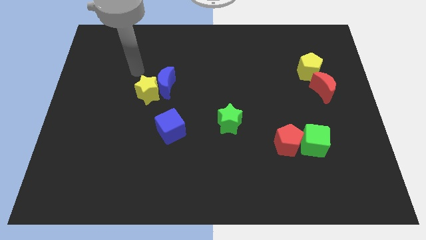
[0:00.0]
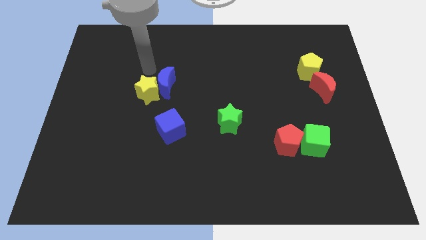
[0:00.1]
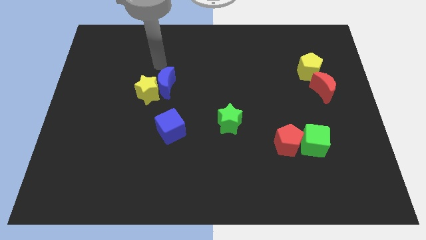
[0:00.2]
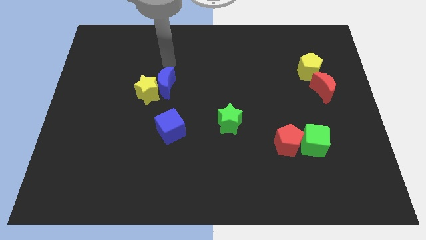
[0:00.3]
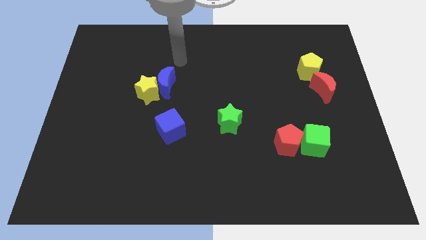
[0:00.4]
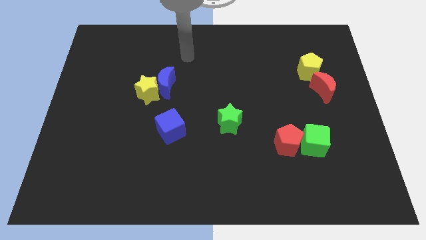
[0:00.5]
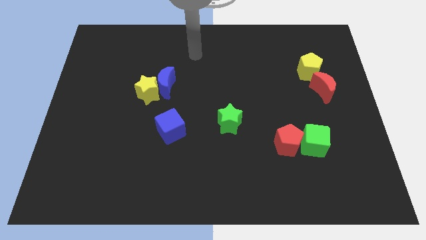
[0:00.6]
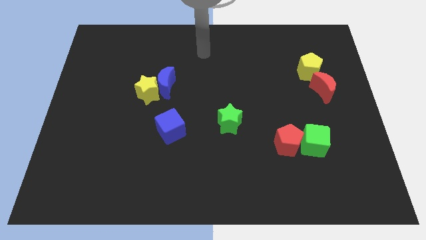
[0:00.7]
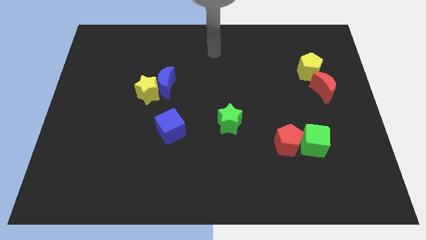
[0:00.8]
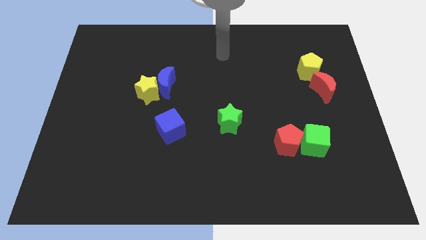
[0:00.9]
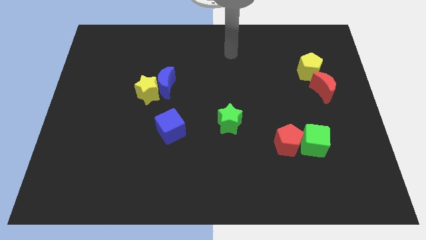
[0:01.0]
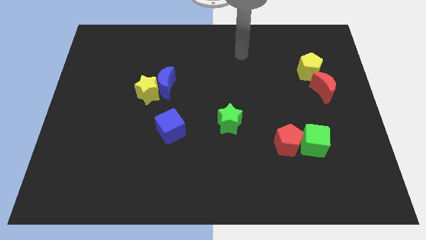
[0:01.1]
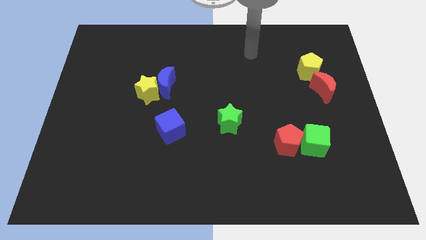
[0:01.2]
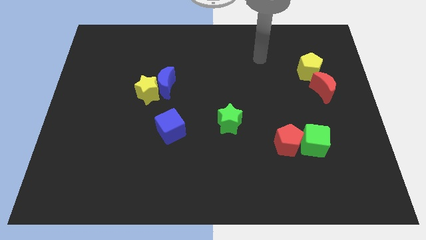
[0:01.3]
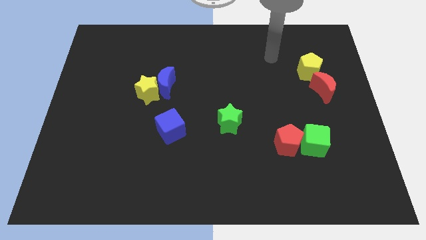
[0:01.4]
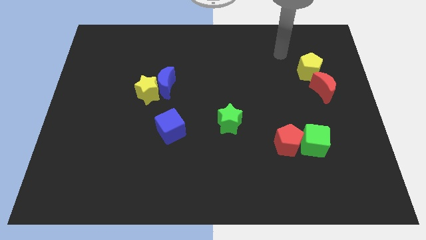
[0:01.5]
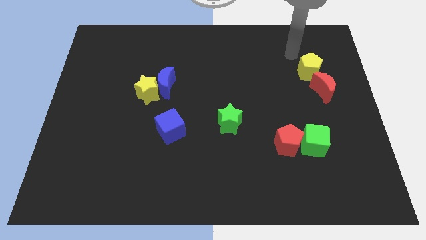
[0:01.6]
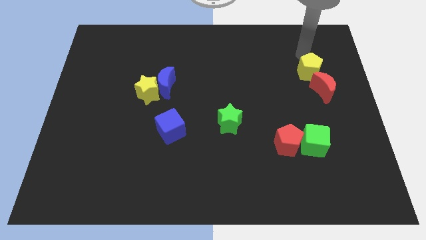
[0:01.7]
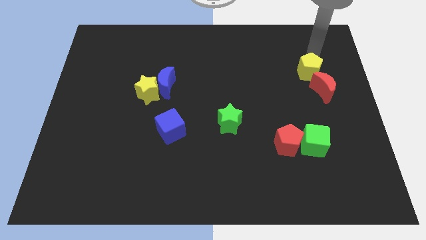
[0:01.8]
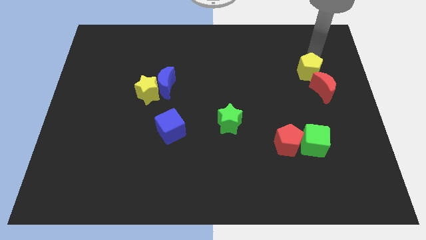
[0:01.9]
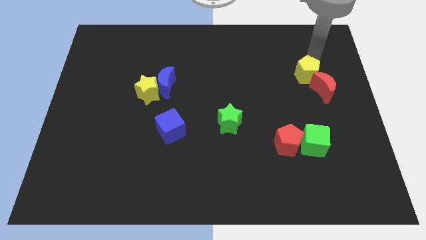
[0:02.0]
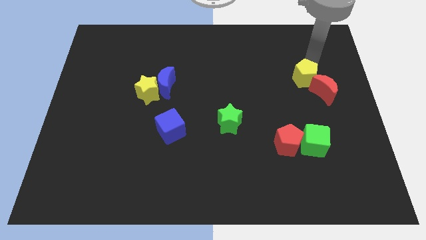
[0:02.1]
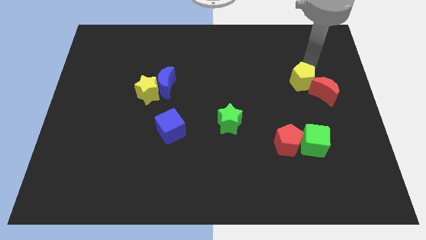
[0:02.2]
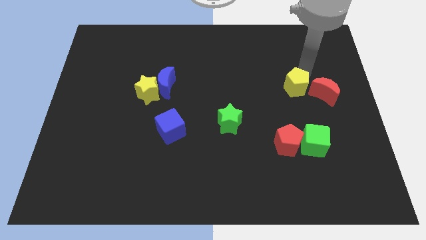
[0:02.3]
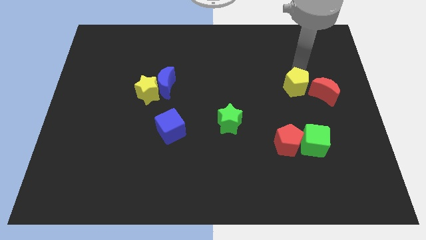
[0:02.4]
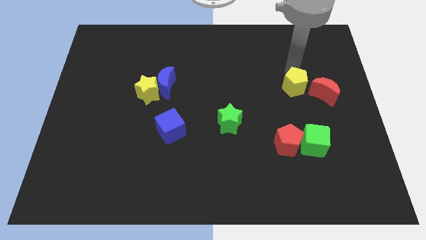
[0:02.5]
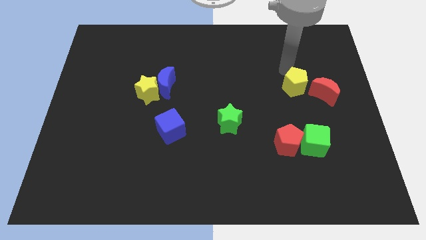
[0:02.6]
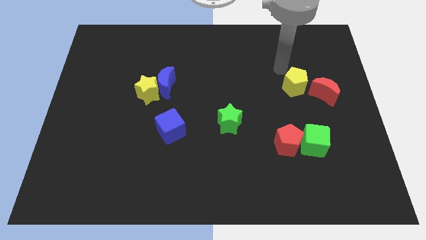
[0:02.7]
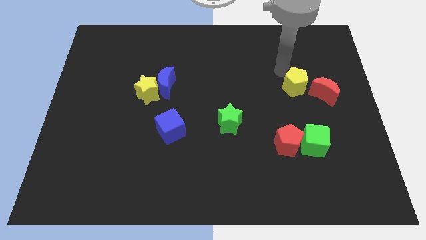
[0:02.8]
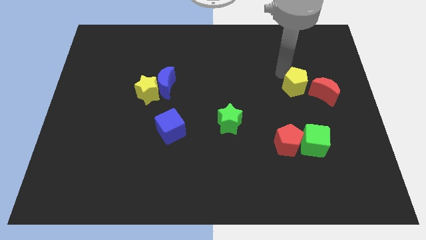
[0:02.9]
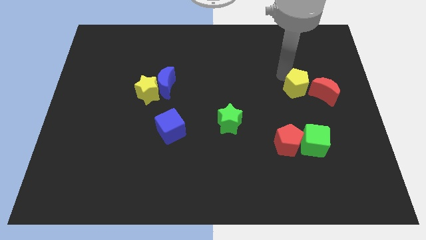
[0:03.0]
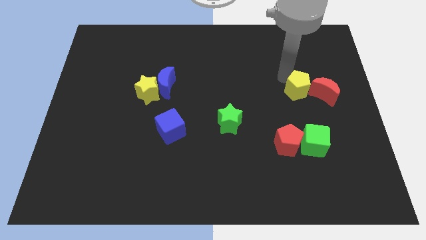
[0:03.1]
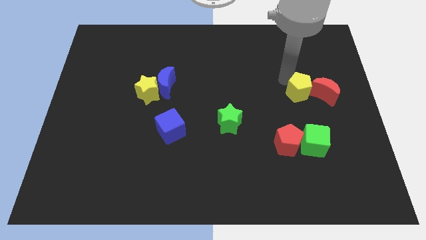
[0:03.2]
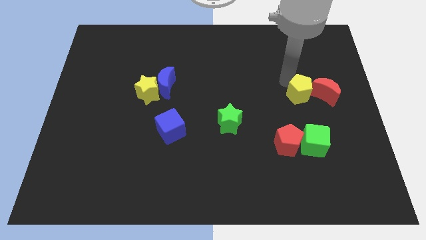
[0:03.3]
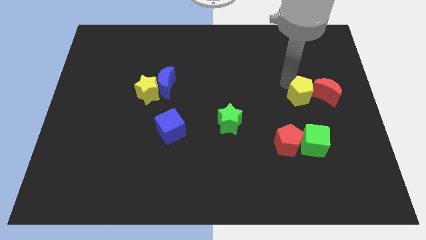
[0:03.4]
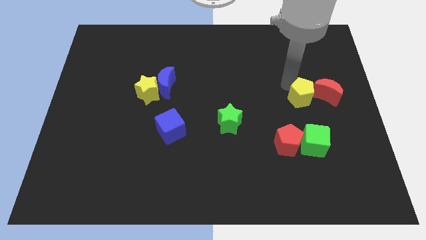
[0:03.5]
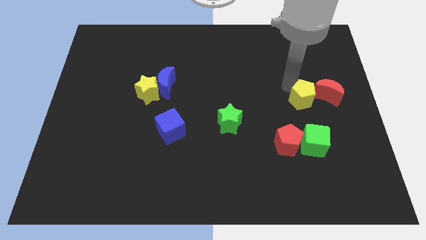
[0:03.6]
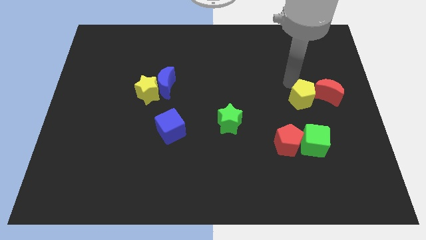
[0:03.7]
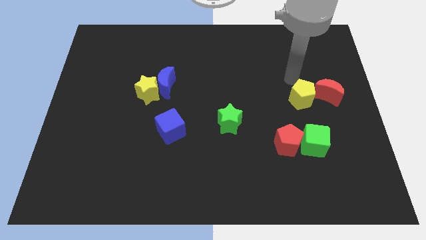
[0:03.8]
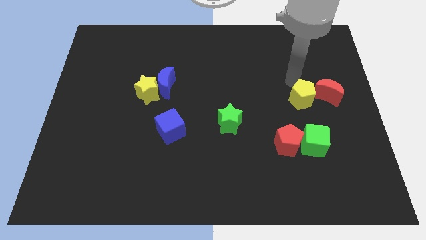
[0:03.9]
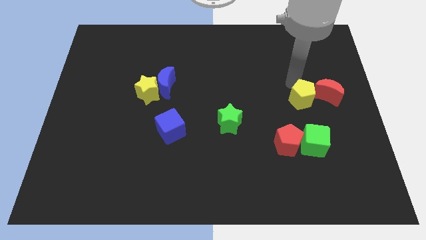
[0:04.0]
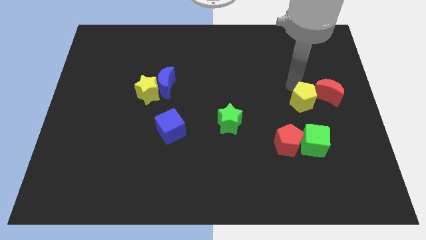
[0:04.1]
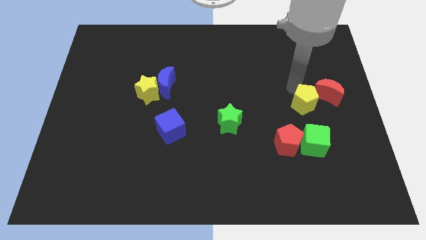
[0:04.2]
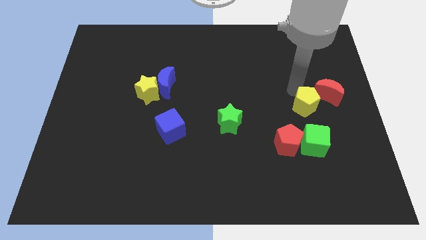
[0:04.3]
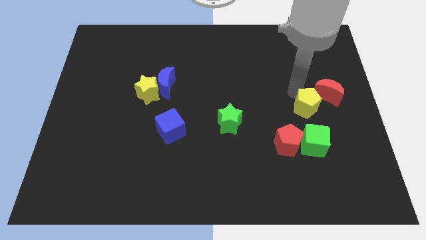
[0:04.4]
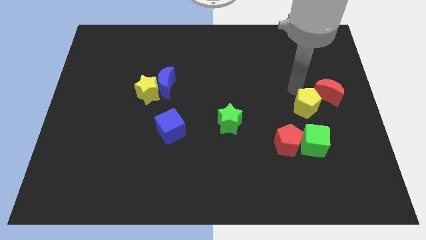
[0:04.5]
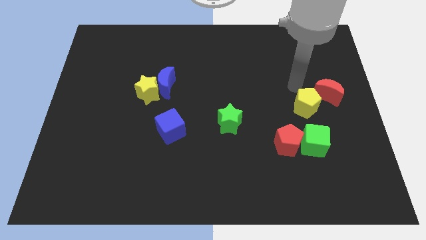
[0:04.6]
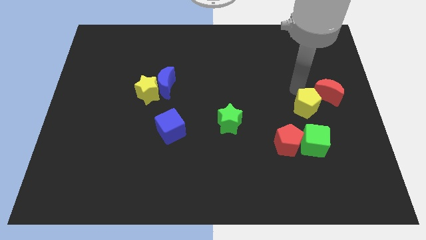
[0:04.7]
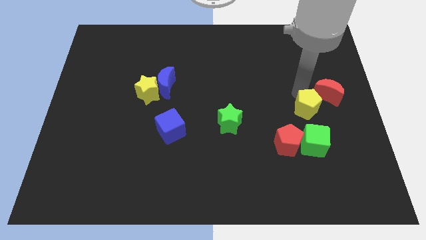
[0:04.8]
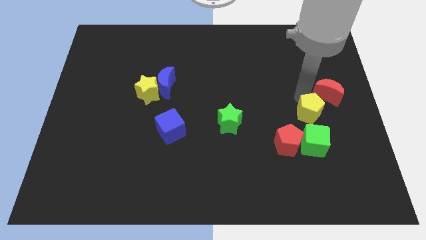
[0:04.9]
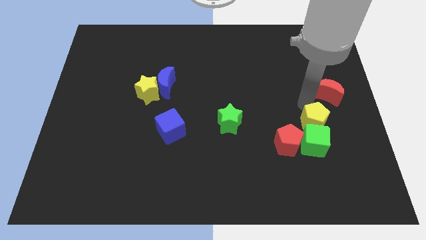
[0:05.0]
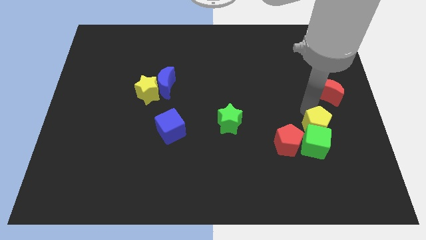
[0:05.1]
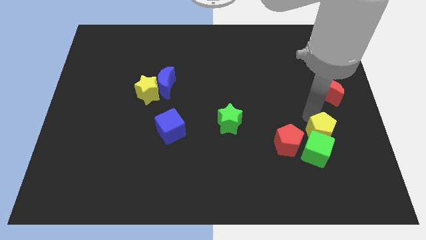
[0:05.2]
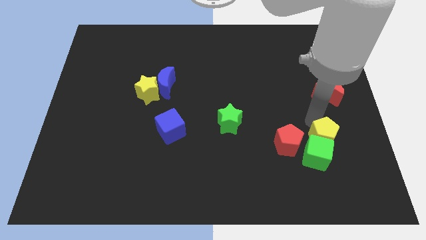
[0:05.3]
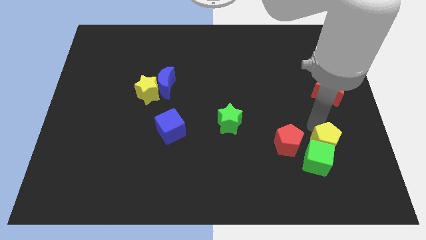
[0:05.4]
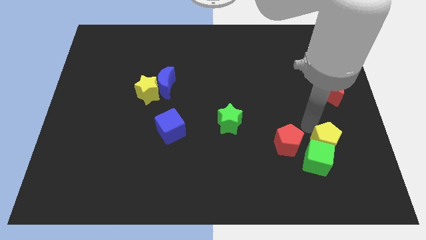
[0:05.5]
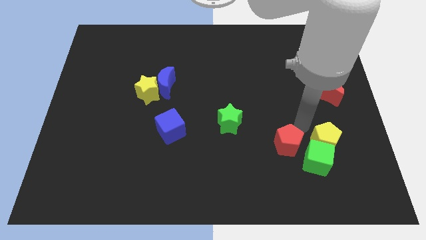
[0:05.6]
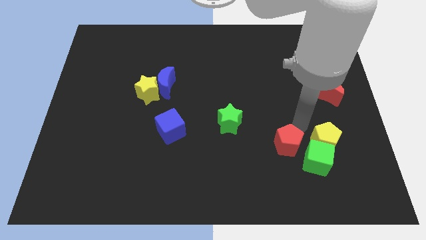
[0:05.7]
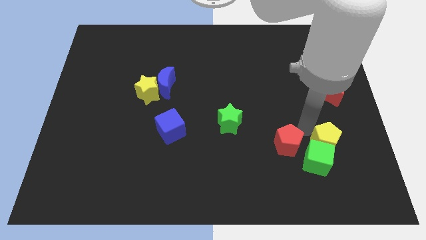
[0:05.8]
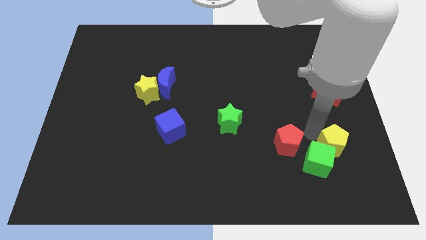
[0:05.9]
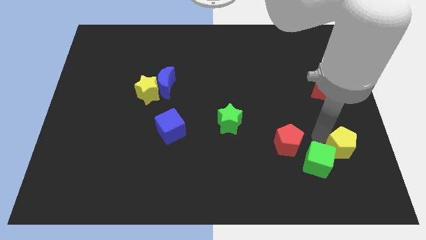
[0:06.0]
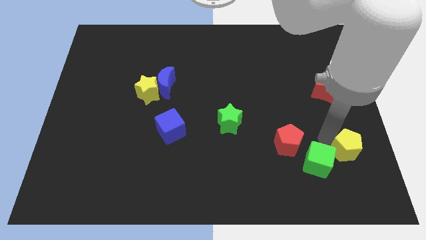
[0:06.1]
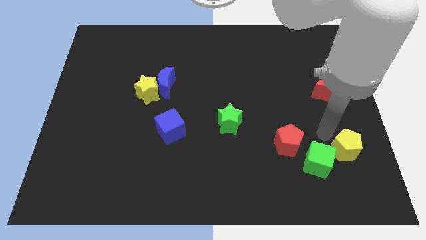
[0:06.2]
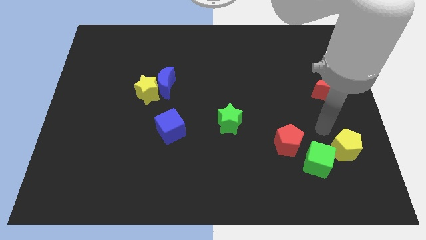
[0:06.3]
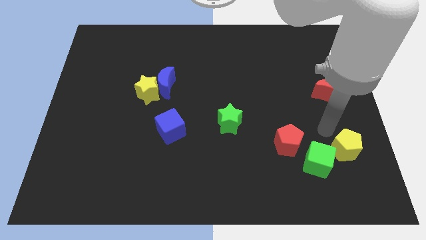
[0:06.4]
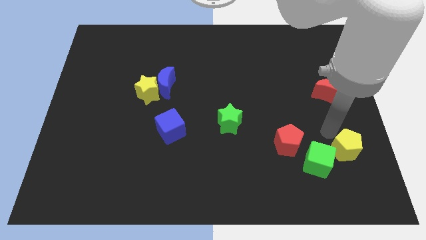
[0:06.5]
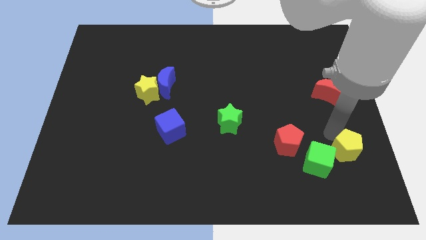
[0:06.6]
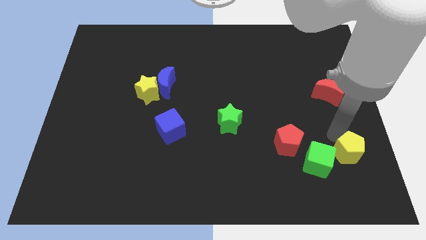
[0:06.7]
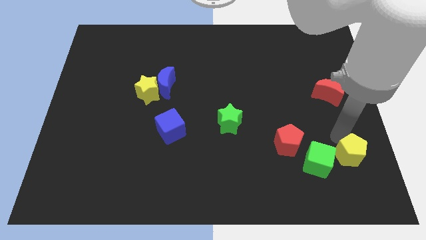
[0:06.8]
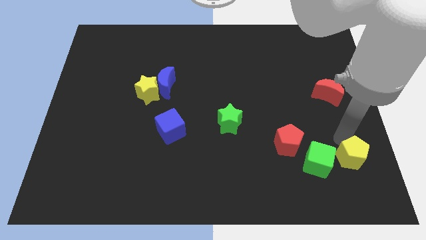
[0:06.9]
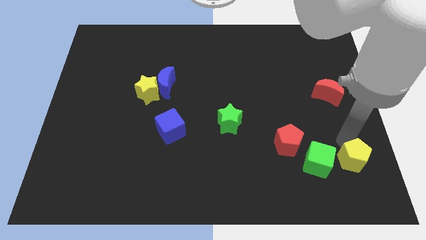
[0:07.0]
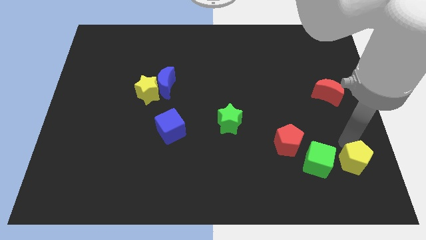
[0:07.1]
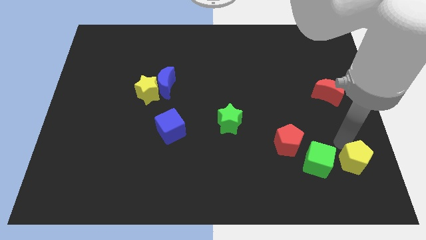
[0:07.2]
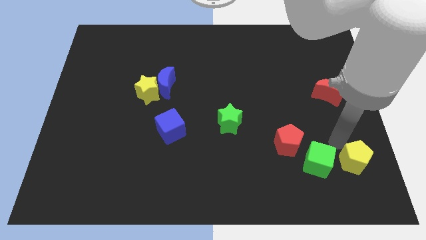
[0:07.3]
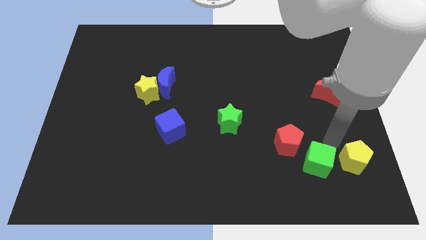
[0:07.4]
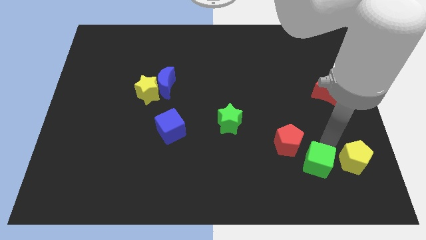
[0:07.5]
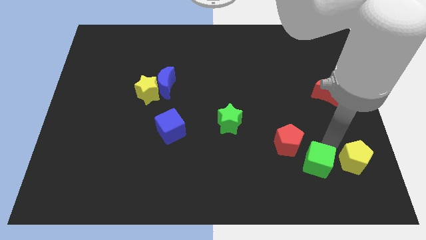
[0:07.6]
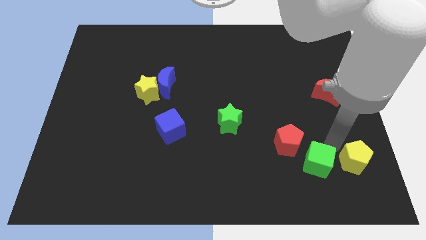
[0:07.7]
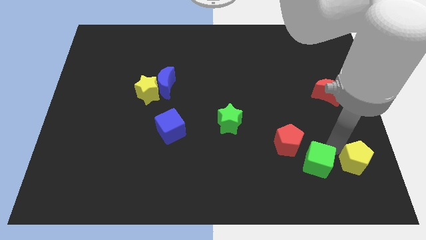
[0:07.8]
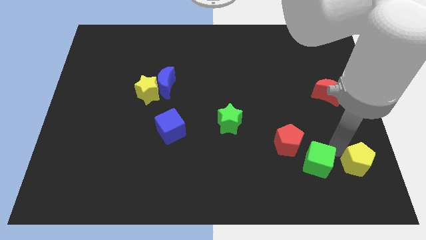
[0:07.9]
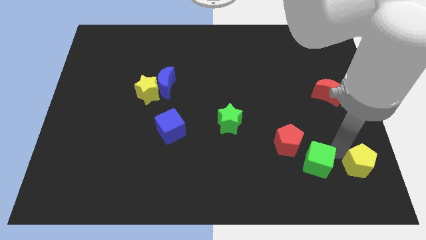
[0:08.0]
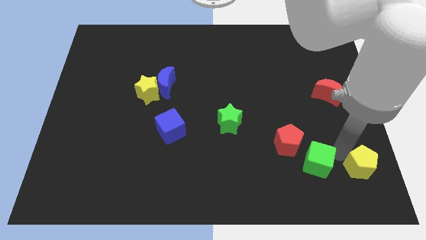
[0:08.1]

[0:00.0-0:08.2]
put the yellow pentagon to the bottom right of the board

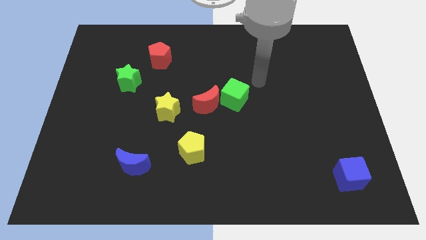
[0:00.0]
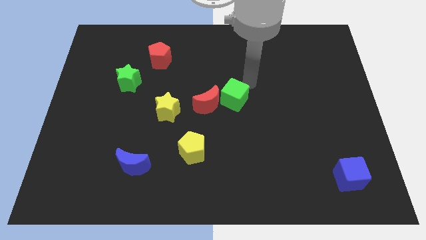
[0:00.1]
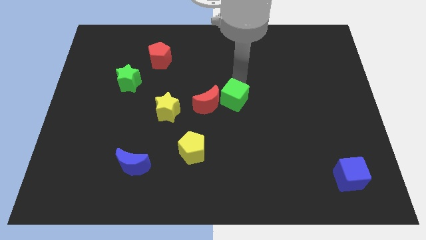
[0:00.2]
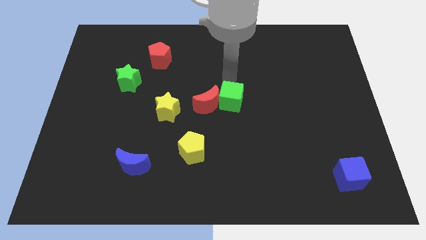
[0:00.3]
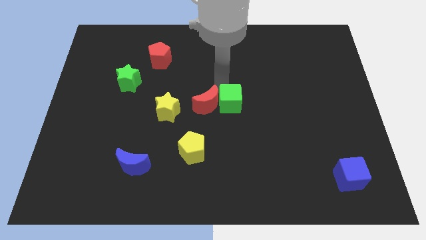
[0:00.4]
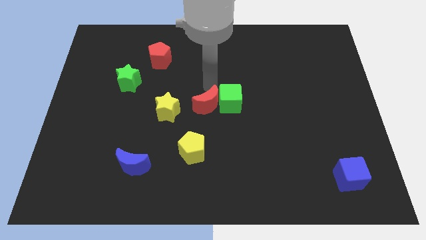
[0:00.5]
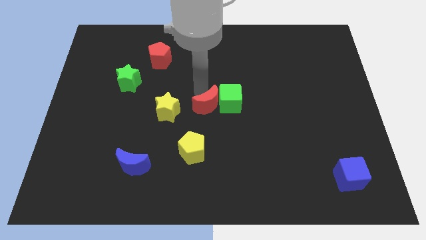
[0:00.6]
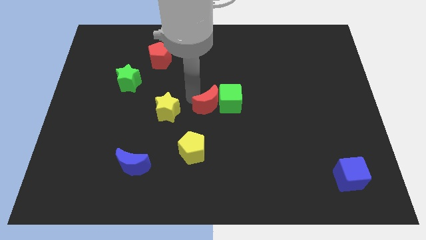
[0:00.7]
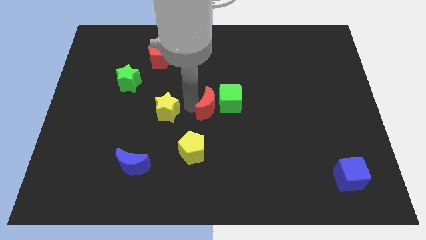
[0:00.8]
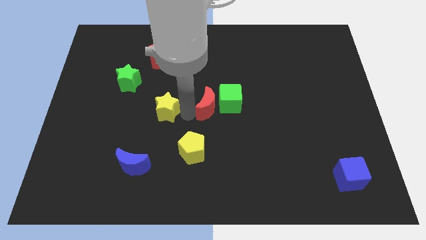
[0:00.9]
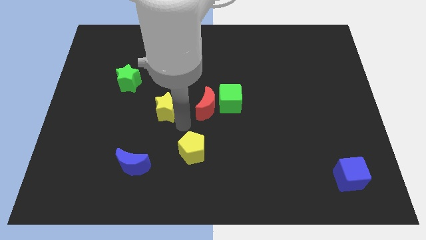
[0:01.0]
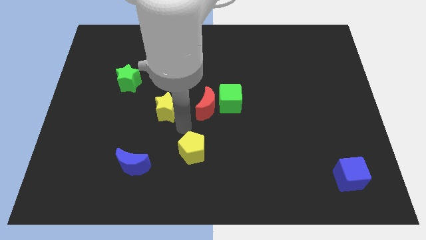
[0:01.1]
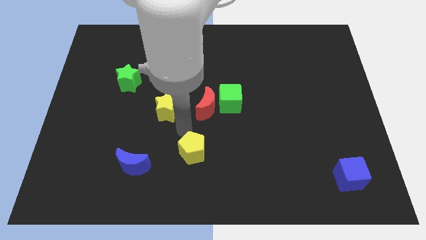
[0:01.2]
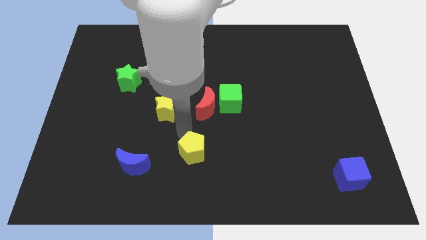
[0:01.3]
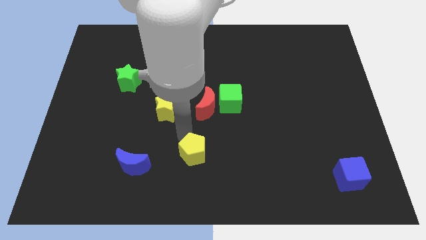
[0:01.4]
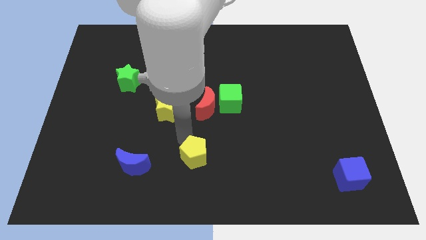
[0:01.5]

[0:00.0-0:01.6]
move the yellow pentagon to the bottom
